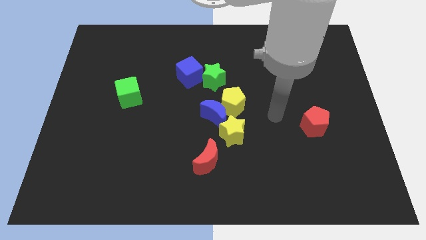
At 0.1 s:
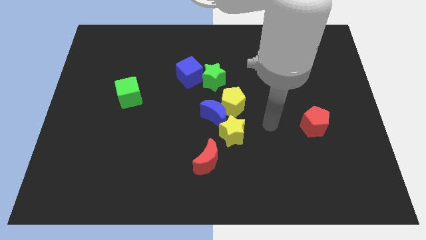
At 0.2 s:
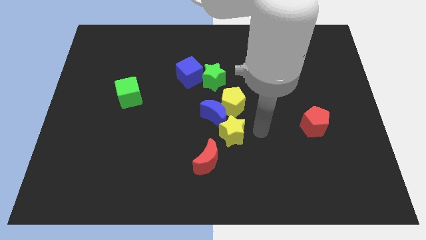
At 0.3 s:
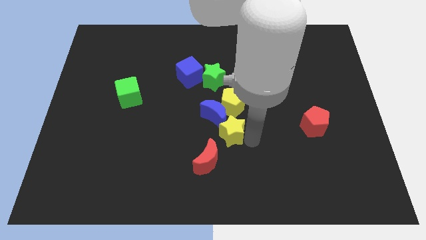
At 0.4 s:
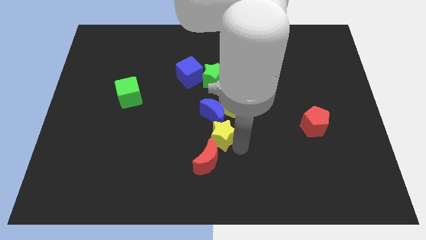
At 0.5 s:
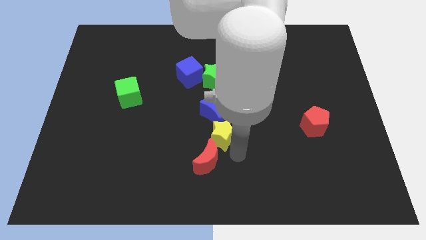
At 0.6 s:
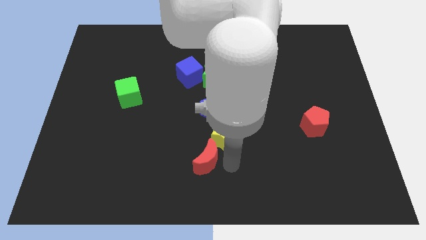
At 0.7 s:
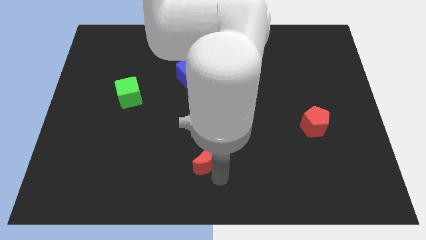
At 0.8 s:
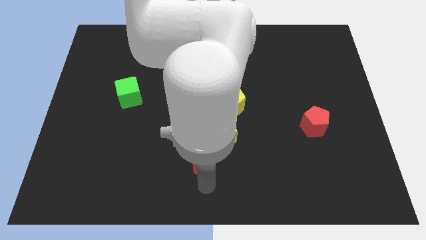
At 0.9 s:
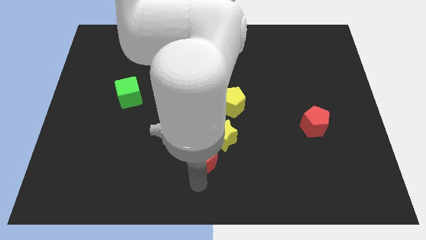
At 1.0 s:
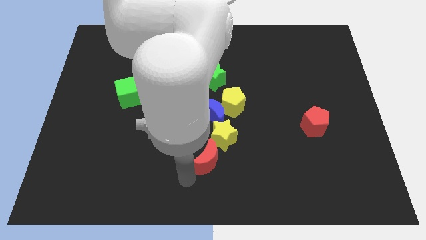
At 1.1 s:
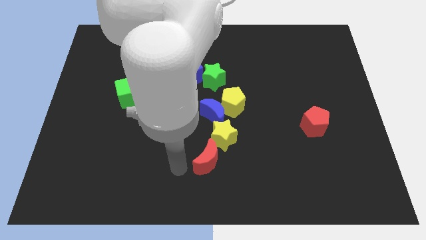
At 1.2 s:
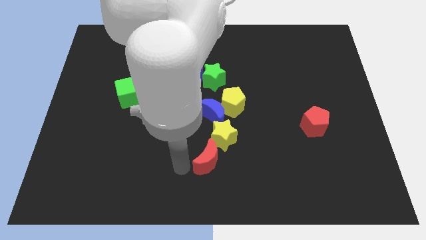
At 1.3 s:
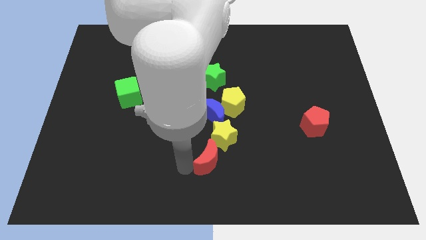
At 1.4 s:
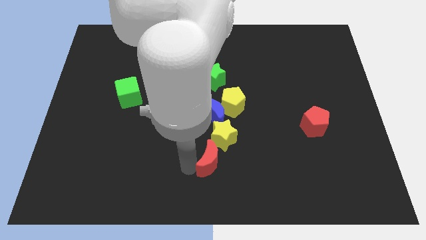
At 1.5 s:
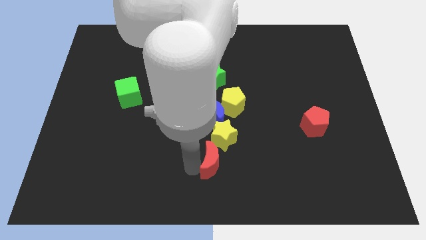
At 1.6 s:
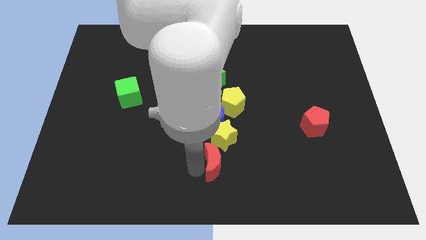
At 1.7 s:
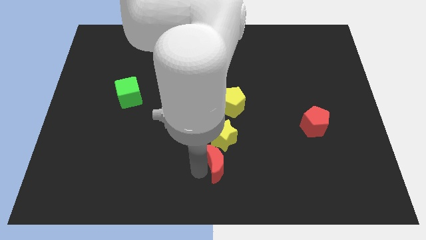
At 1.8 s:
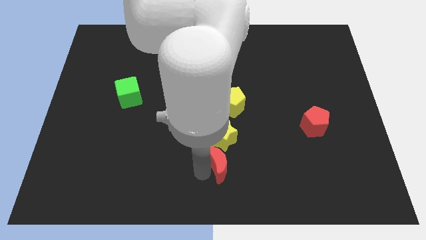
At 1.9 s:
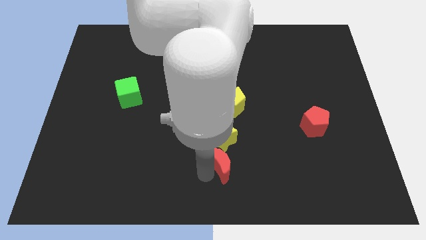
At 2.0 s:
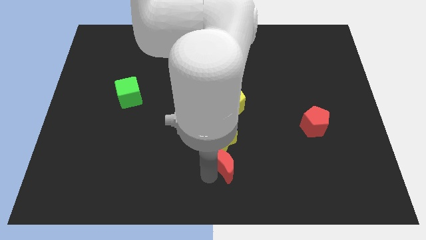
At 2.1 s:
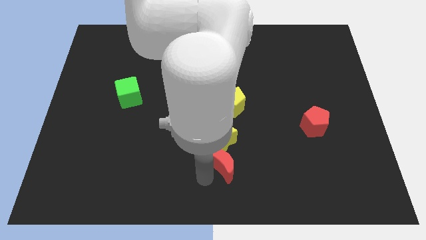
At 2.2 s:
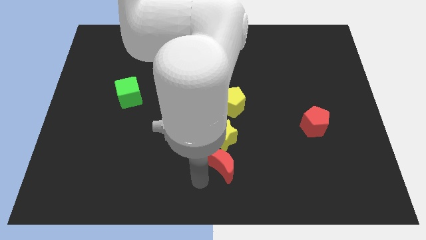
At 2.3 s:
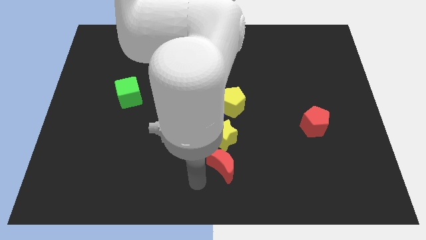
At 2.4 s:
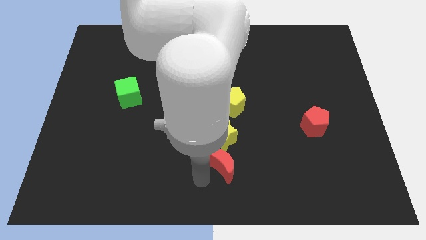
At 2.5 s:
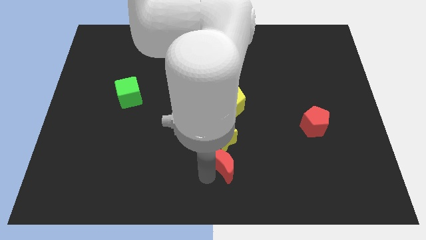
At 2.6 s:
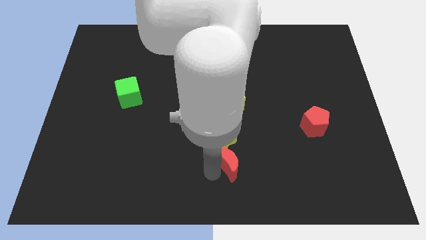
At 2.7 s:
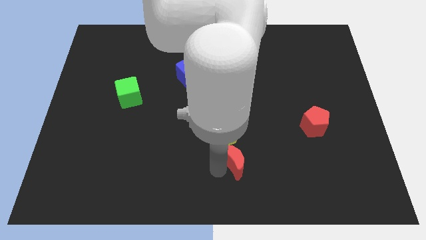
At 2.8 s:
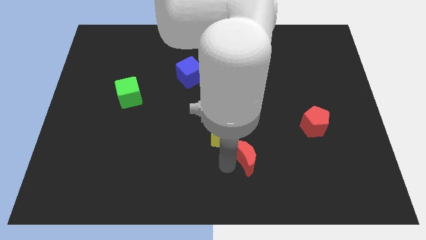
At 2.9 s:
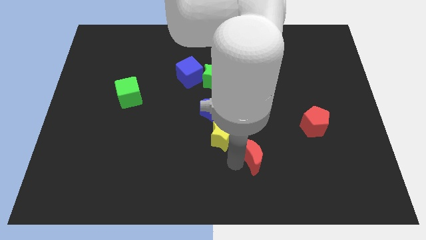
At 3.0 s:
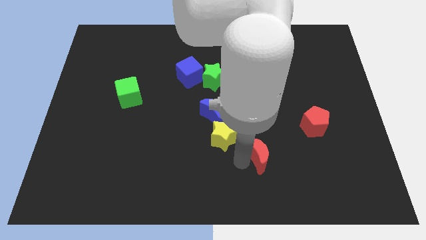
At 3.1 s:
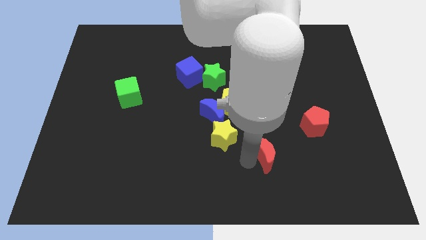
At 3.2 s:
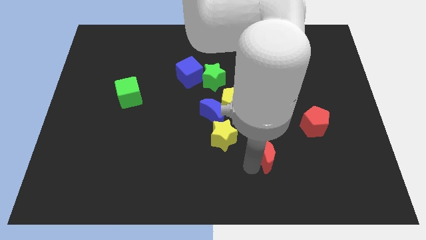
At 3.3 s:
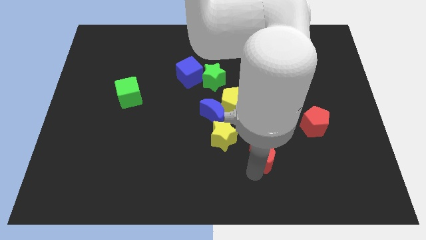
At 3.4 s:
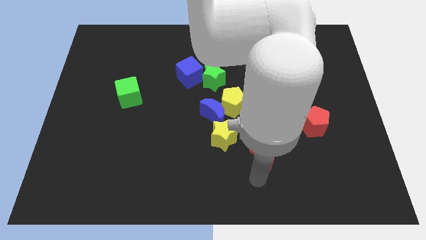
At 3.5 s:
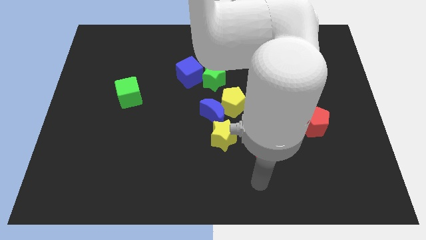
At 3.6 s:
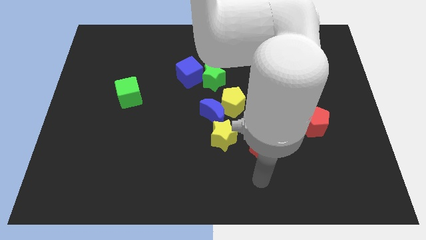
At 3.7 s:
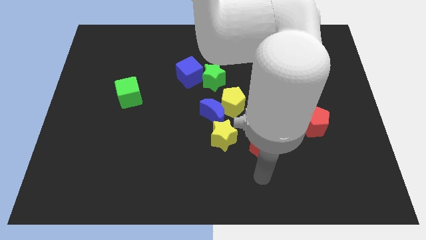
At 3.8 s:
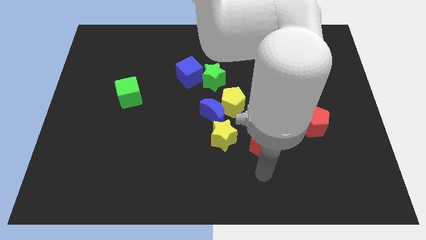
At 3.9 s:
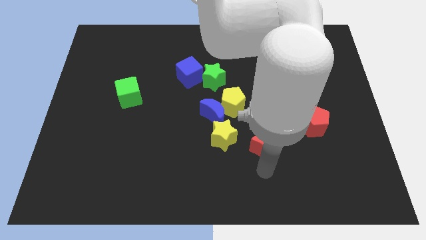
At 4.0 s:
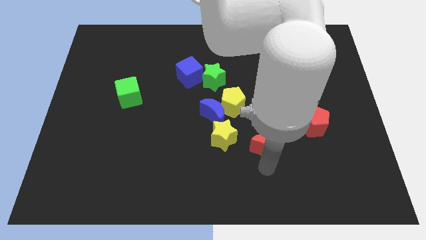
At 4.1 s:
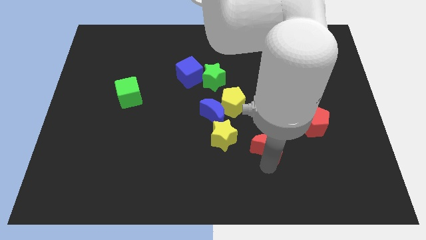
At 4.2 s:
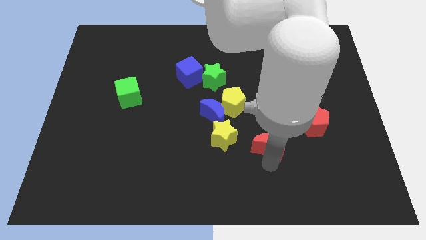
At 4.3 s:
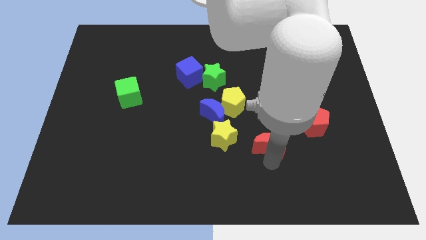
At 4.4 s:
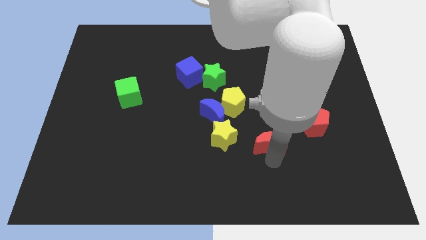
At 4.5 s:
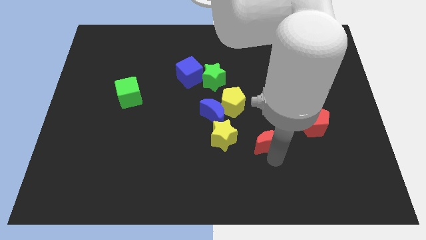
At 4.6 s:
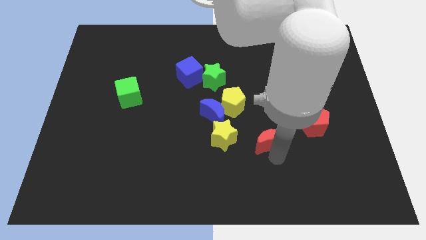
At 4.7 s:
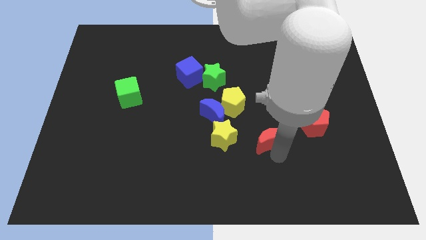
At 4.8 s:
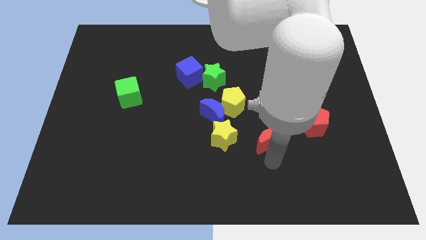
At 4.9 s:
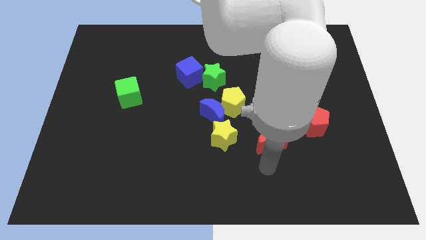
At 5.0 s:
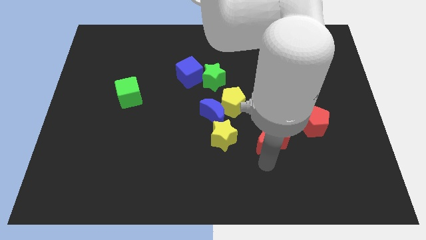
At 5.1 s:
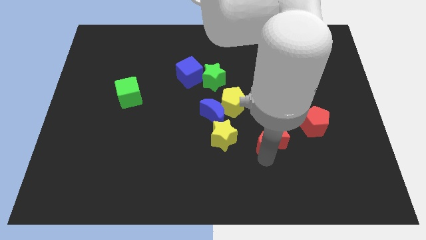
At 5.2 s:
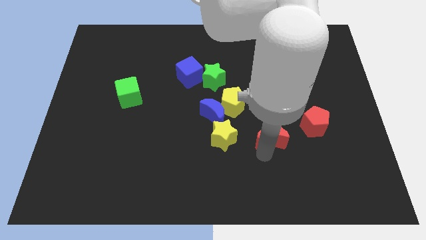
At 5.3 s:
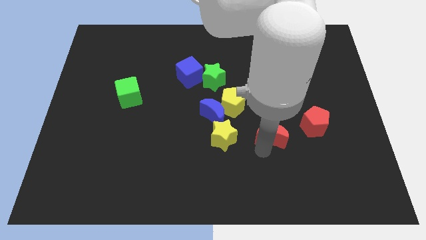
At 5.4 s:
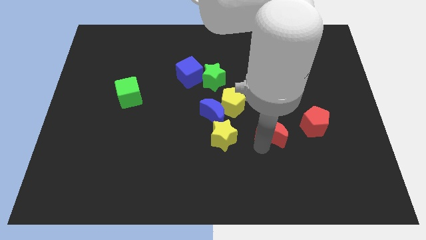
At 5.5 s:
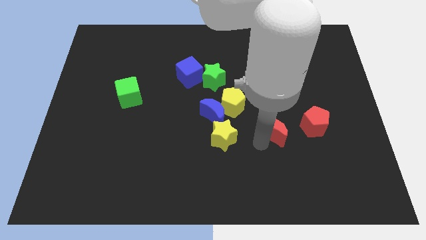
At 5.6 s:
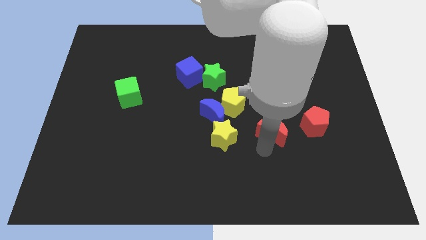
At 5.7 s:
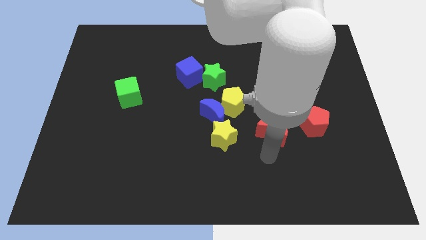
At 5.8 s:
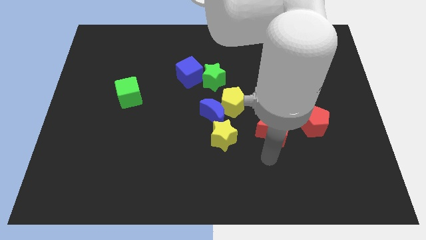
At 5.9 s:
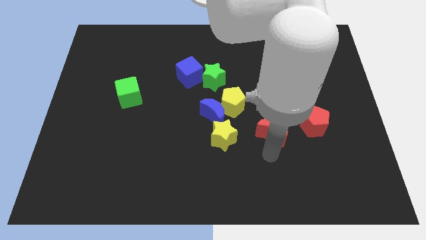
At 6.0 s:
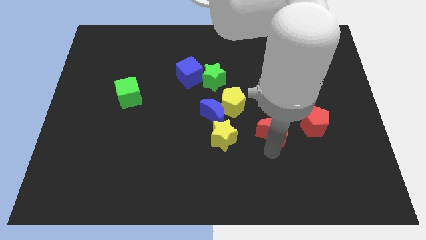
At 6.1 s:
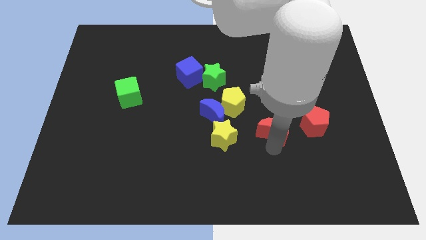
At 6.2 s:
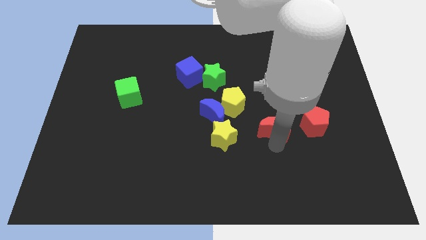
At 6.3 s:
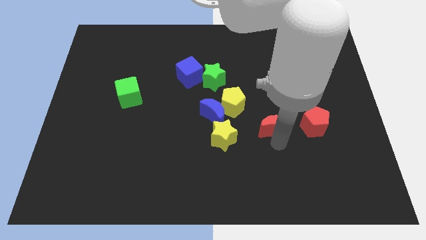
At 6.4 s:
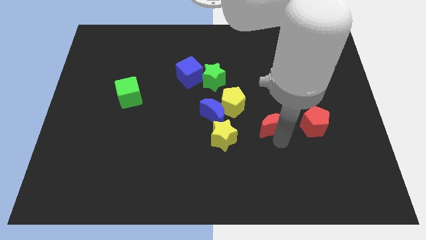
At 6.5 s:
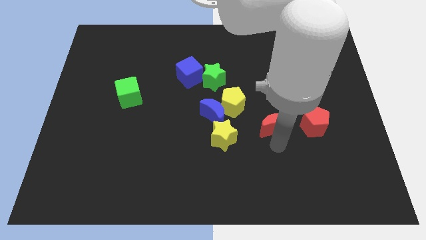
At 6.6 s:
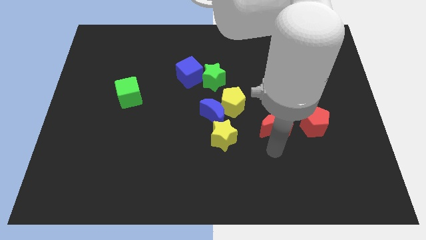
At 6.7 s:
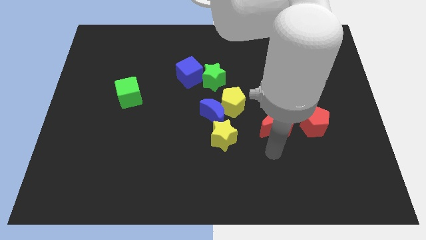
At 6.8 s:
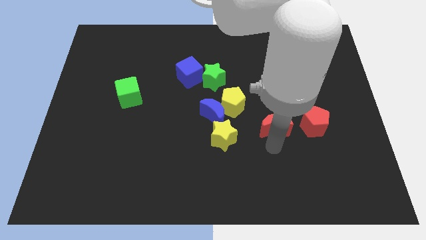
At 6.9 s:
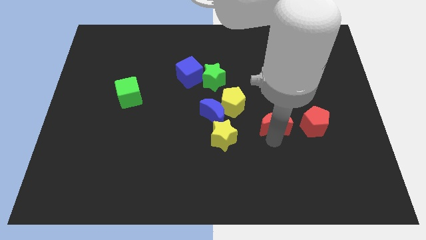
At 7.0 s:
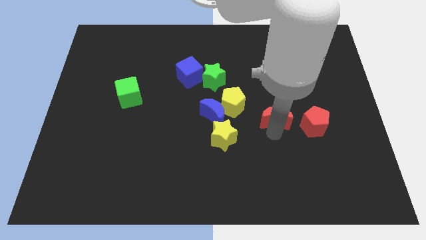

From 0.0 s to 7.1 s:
slide the red moon to the right side of the yellow pentagon
